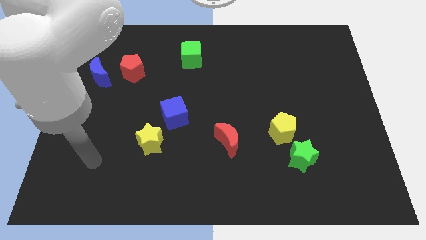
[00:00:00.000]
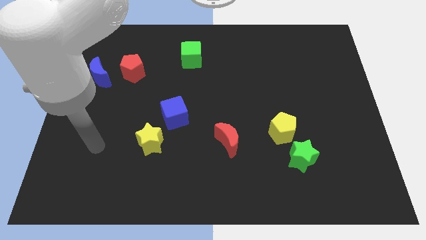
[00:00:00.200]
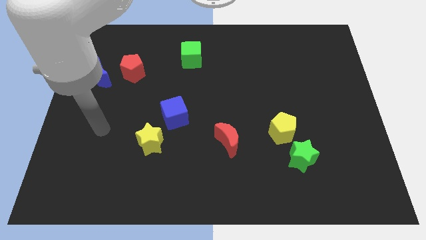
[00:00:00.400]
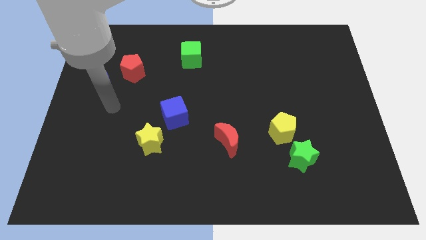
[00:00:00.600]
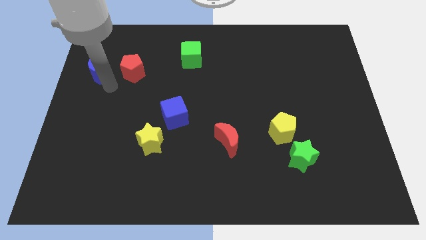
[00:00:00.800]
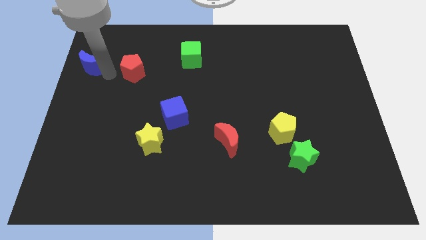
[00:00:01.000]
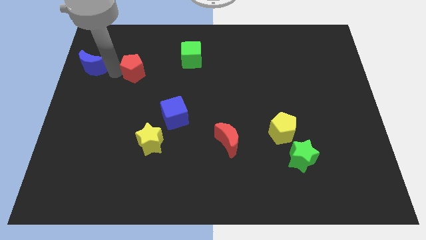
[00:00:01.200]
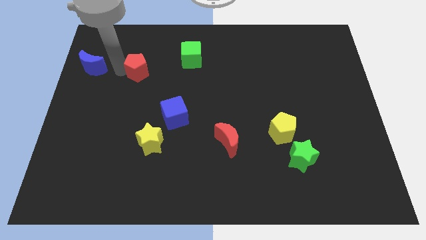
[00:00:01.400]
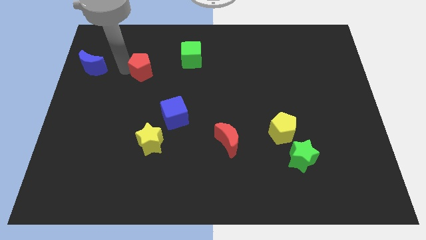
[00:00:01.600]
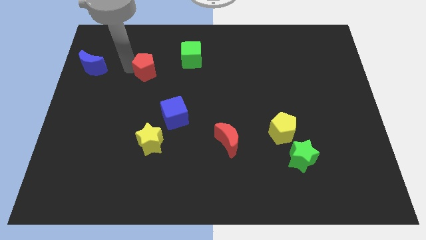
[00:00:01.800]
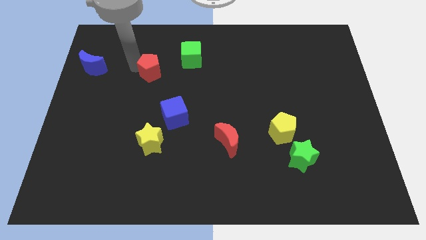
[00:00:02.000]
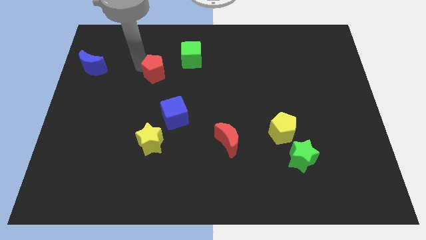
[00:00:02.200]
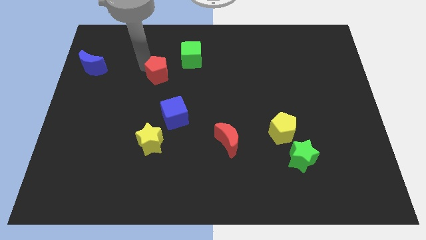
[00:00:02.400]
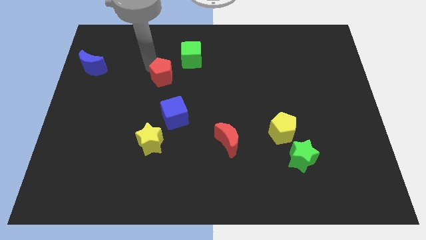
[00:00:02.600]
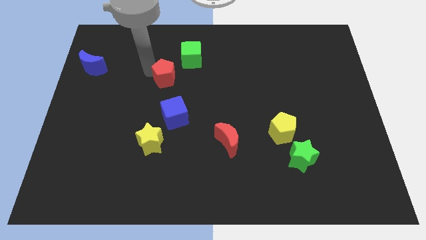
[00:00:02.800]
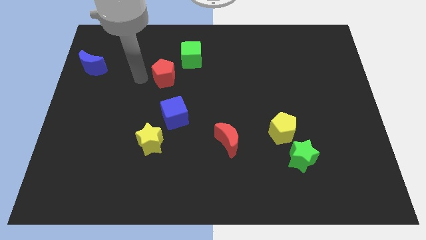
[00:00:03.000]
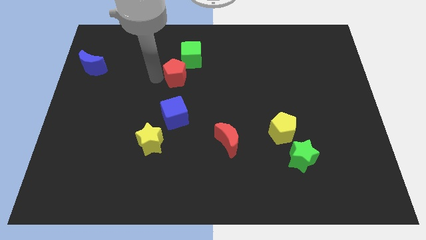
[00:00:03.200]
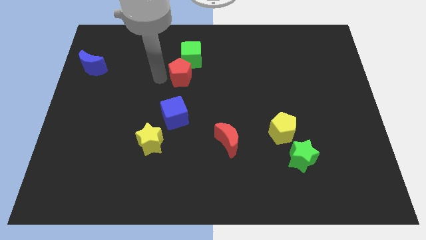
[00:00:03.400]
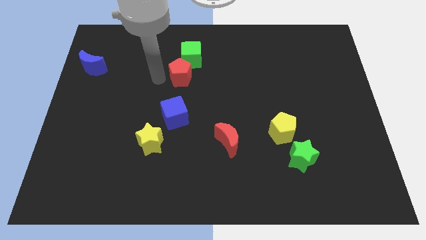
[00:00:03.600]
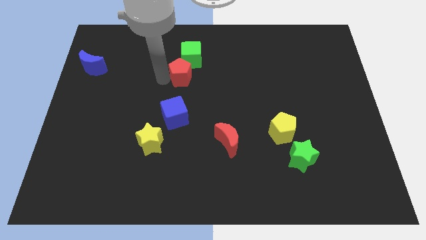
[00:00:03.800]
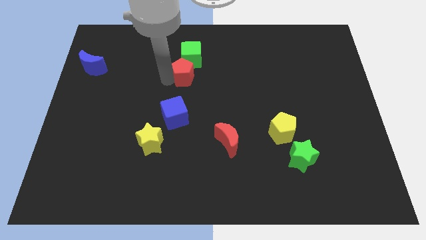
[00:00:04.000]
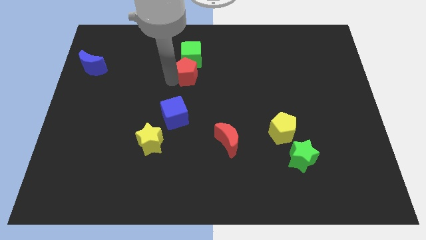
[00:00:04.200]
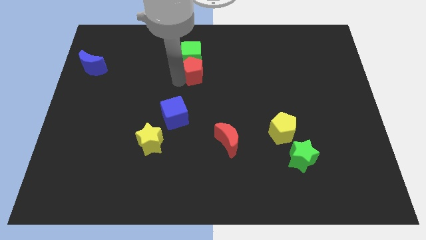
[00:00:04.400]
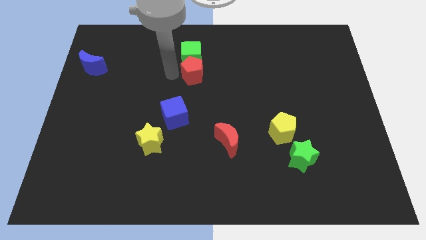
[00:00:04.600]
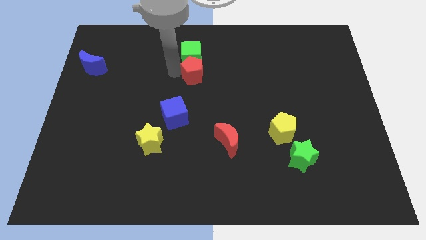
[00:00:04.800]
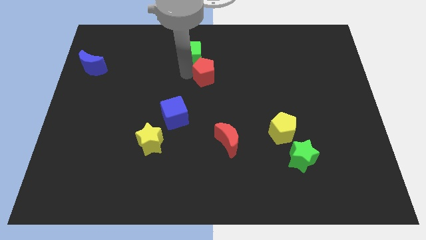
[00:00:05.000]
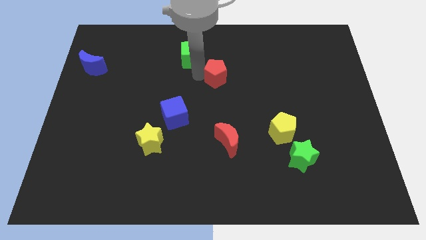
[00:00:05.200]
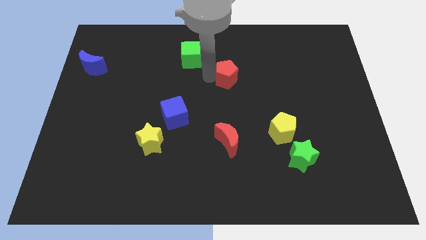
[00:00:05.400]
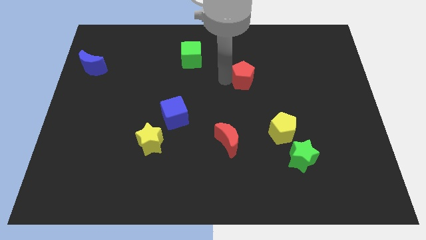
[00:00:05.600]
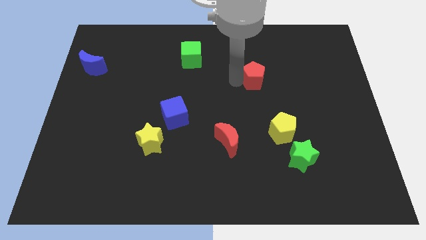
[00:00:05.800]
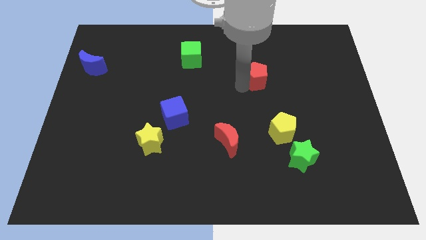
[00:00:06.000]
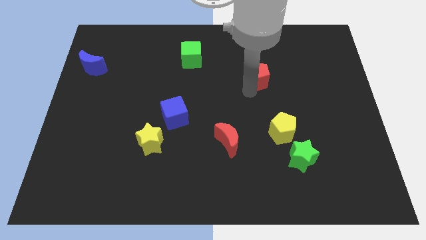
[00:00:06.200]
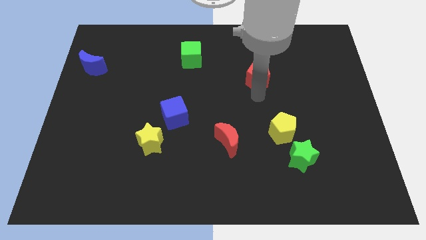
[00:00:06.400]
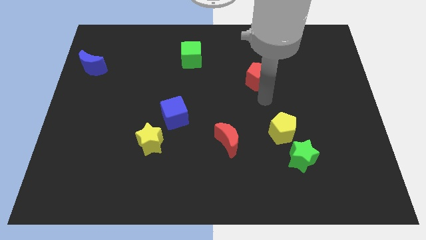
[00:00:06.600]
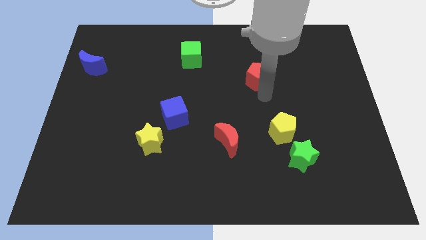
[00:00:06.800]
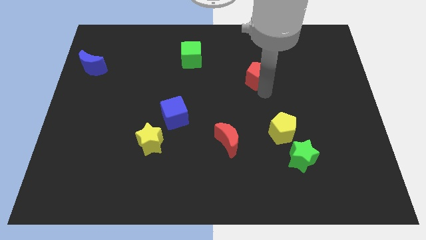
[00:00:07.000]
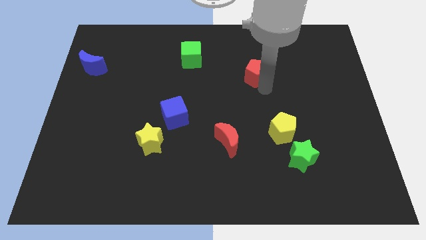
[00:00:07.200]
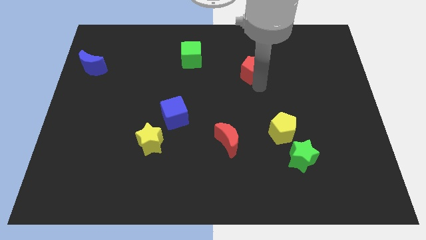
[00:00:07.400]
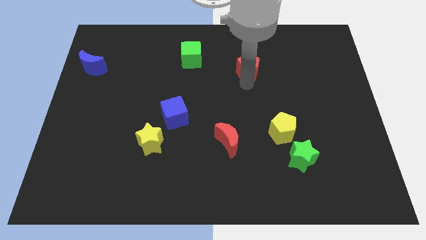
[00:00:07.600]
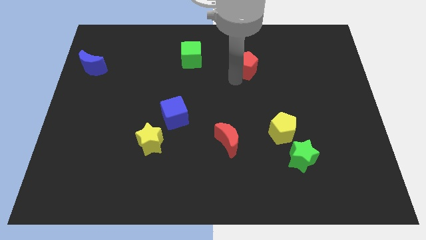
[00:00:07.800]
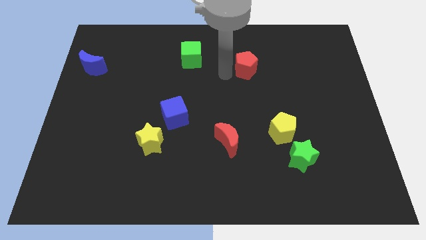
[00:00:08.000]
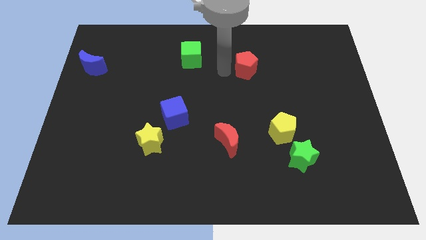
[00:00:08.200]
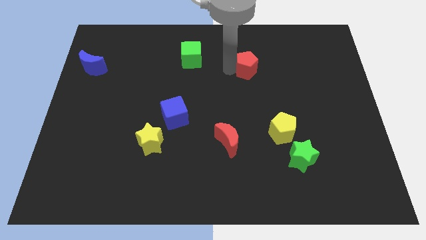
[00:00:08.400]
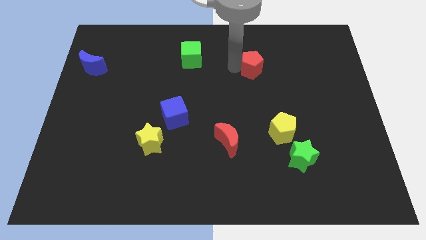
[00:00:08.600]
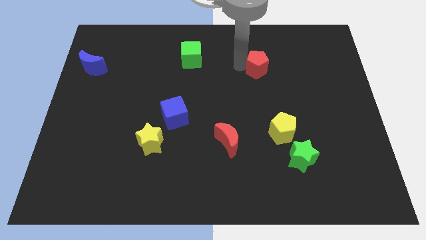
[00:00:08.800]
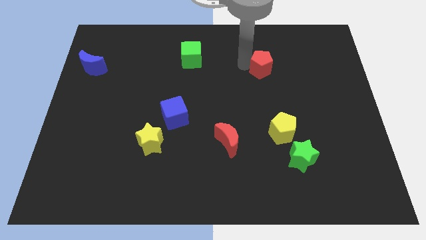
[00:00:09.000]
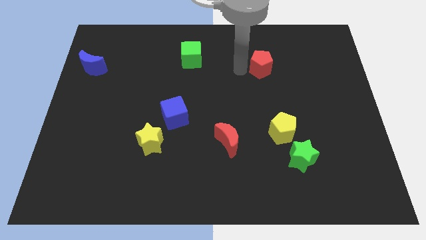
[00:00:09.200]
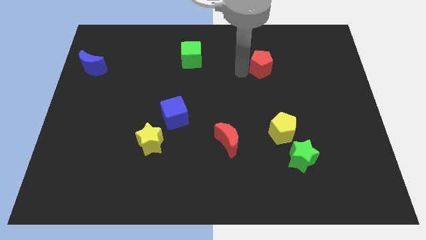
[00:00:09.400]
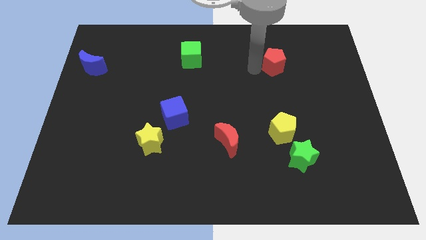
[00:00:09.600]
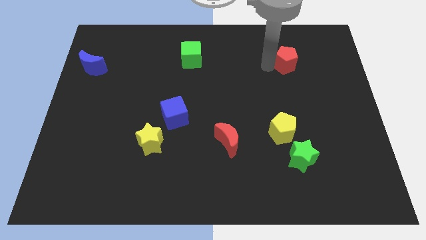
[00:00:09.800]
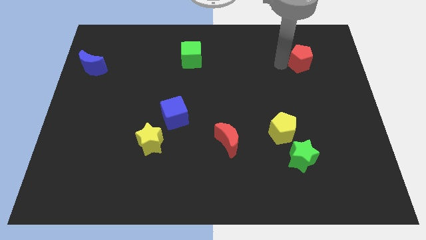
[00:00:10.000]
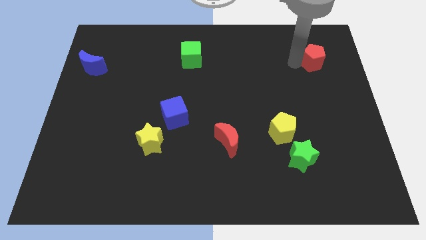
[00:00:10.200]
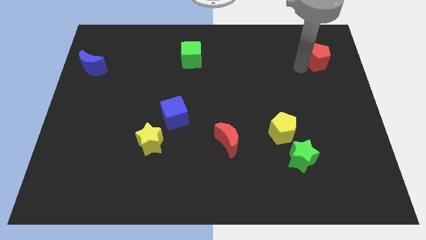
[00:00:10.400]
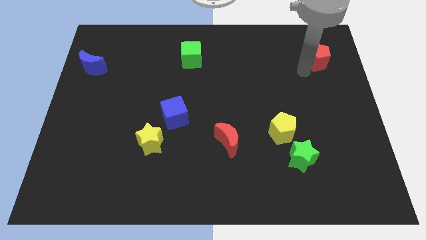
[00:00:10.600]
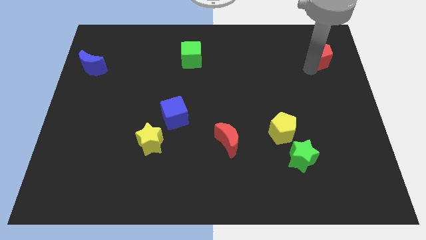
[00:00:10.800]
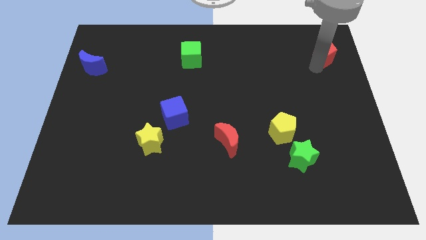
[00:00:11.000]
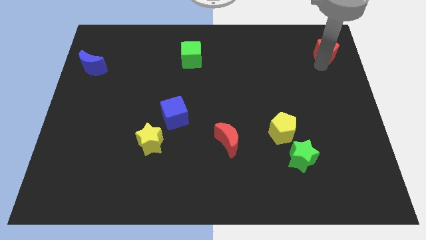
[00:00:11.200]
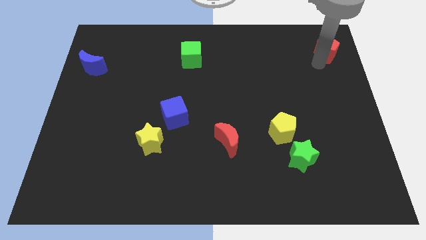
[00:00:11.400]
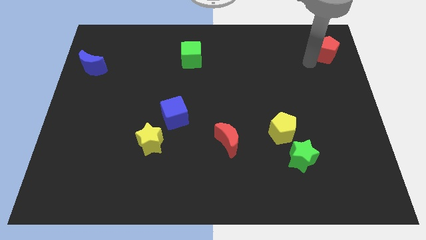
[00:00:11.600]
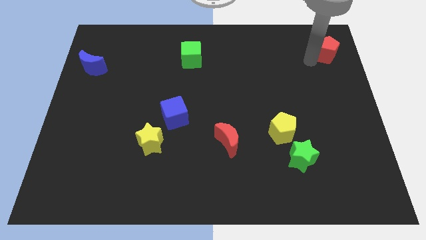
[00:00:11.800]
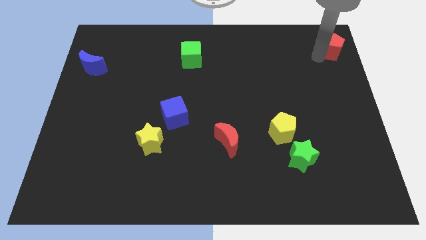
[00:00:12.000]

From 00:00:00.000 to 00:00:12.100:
put the red pentagon to the top right corner
